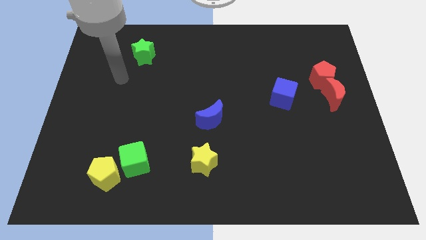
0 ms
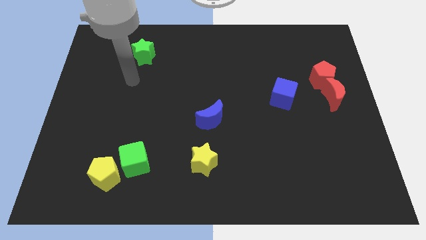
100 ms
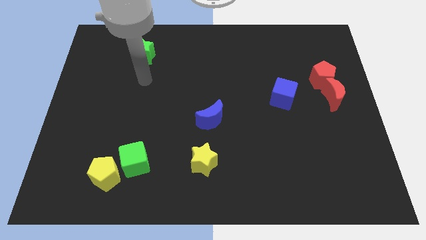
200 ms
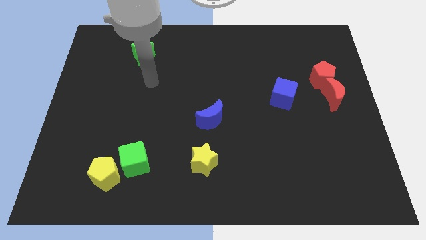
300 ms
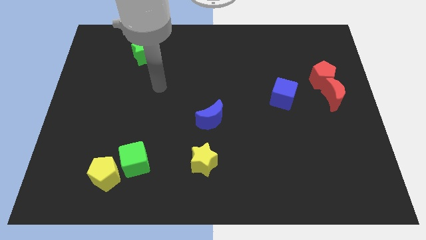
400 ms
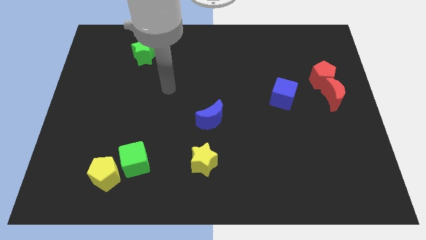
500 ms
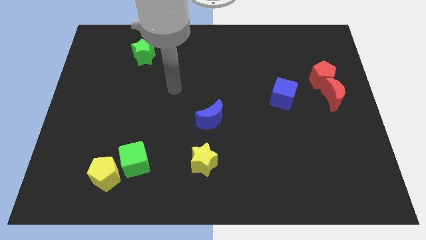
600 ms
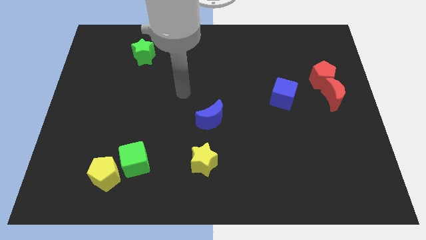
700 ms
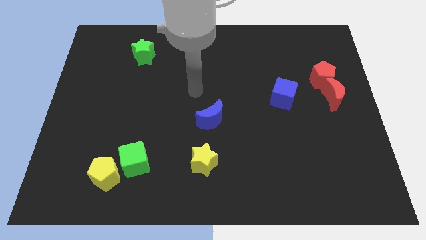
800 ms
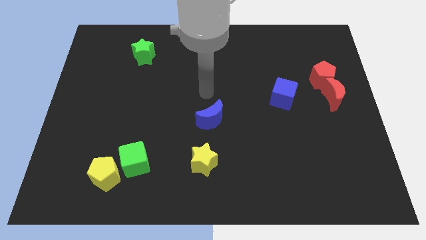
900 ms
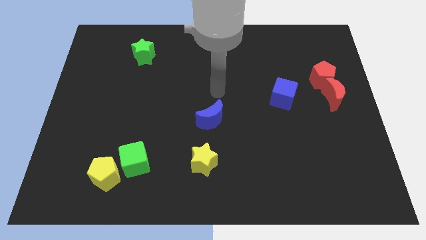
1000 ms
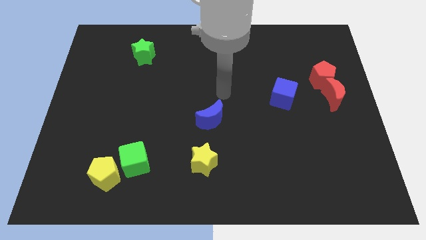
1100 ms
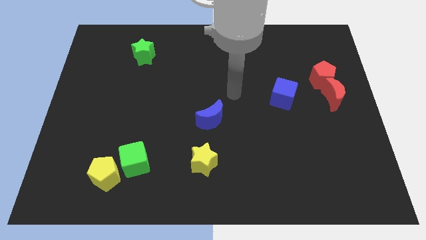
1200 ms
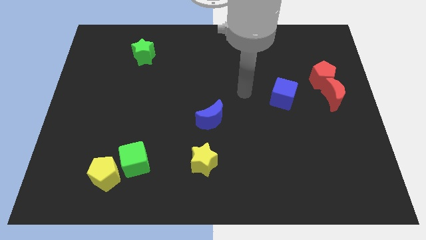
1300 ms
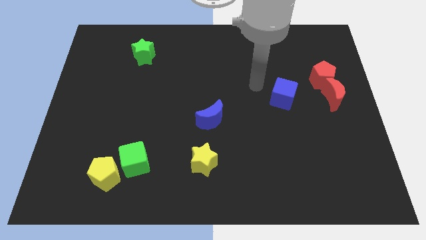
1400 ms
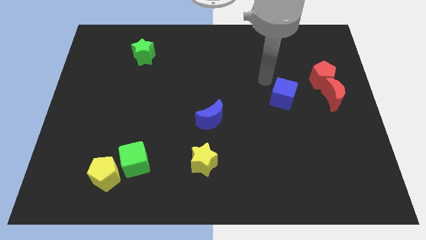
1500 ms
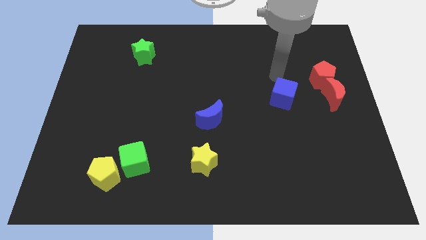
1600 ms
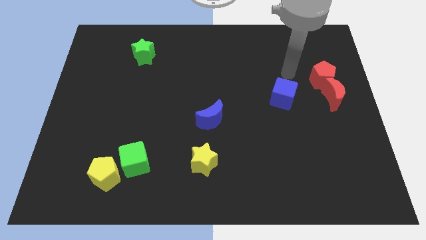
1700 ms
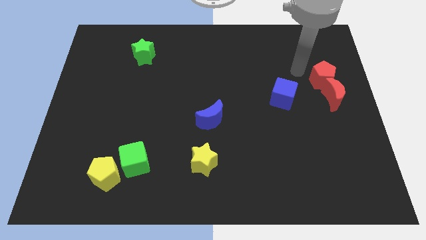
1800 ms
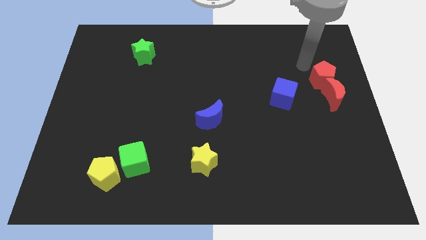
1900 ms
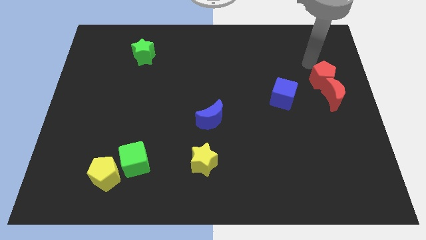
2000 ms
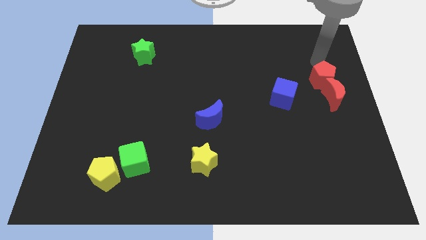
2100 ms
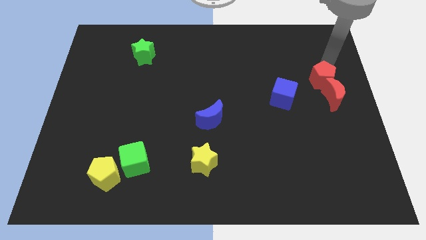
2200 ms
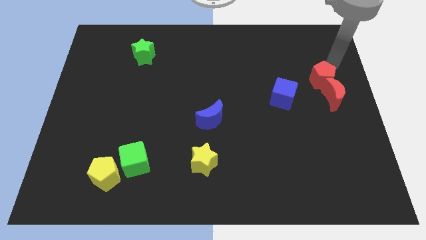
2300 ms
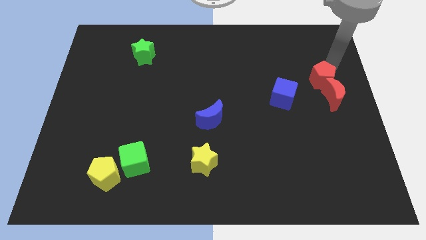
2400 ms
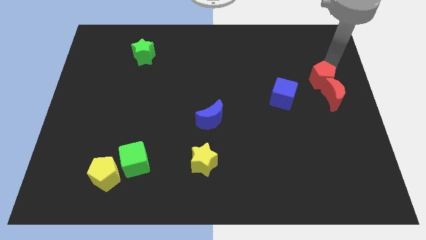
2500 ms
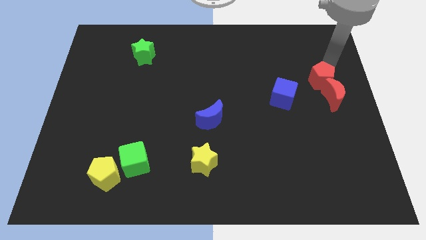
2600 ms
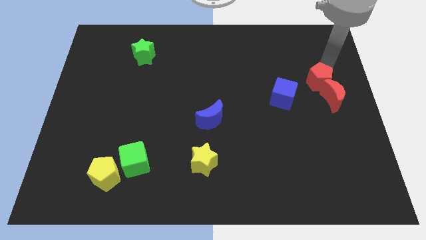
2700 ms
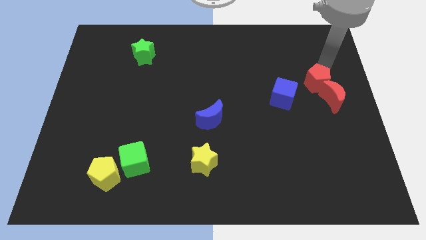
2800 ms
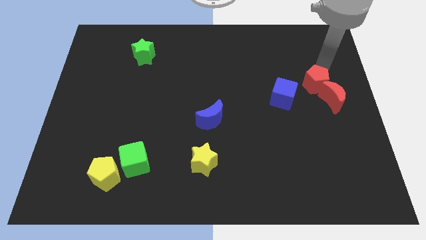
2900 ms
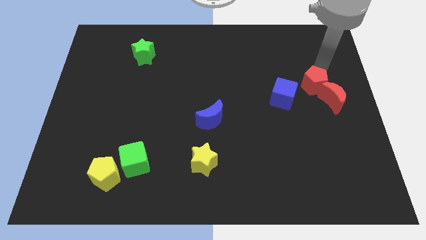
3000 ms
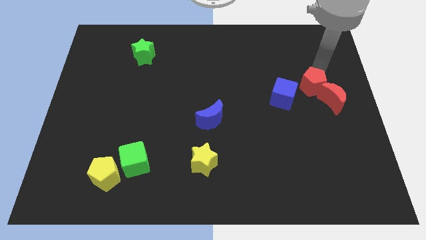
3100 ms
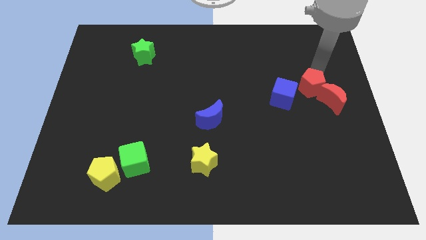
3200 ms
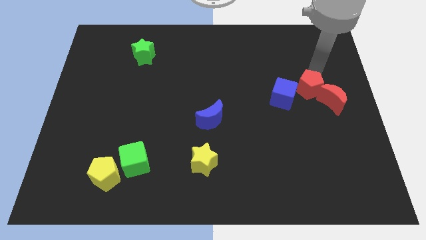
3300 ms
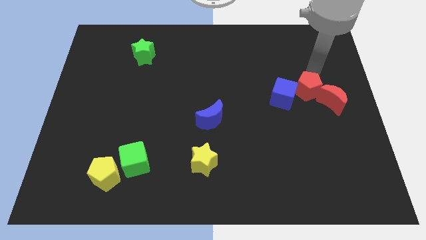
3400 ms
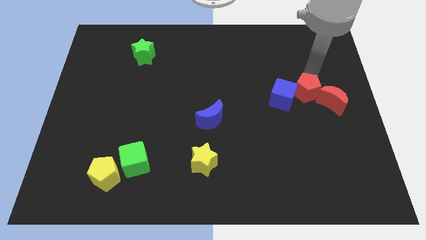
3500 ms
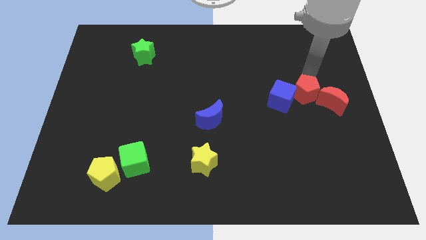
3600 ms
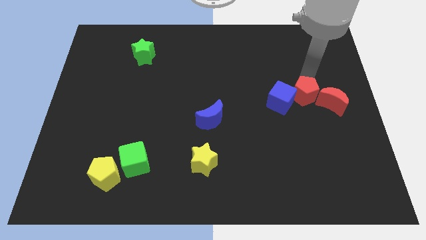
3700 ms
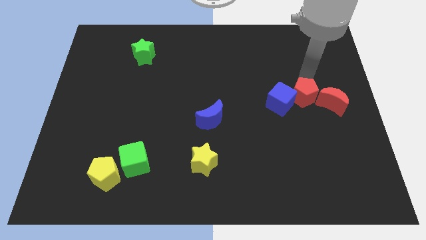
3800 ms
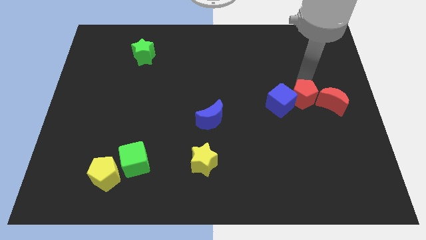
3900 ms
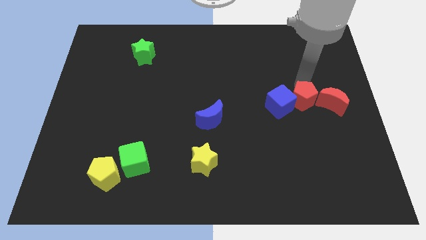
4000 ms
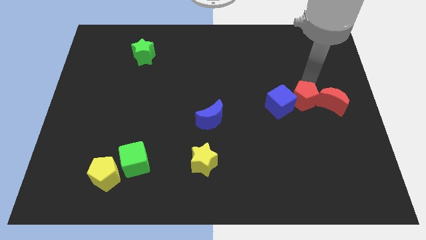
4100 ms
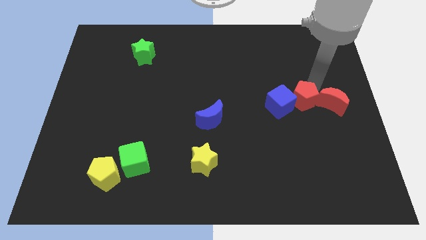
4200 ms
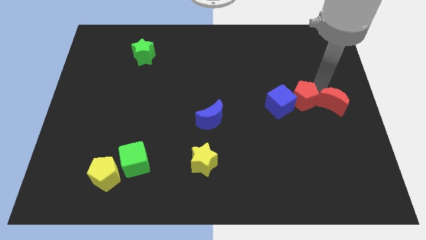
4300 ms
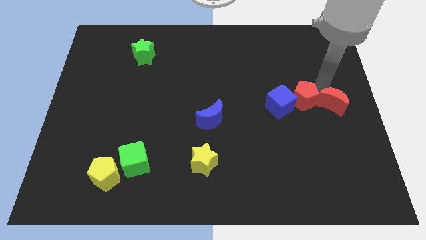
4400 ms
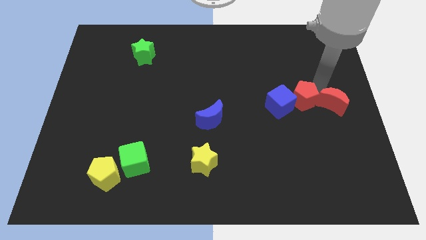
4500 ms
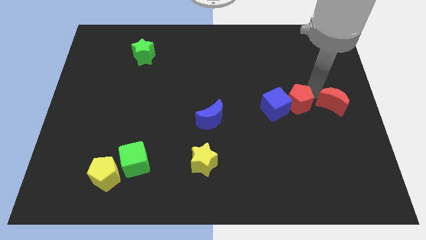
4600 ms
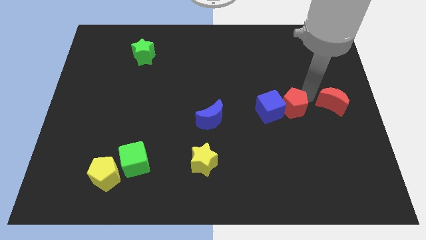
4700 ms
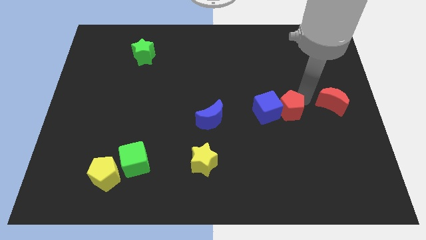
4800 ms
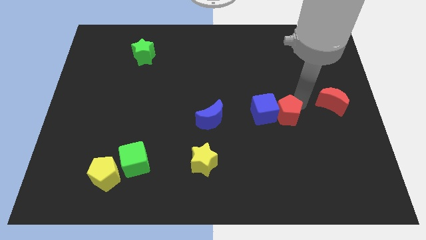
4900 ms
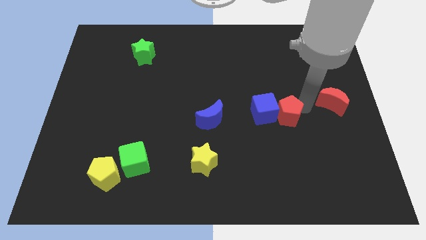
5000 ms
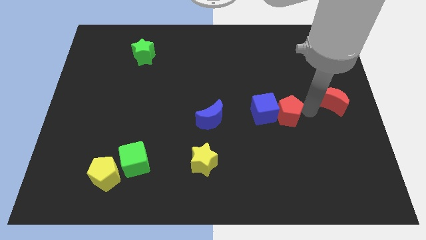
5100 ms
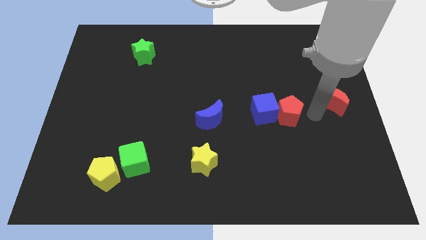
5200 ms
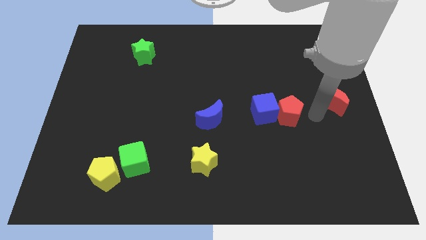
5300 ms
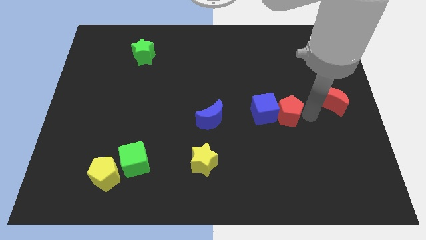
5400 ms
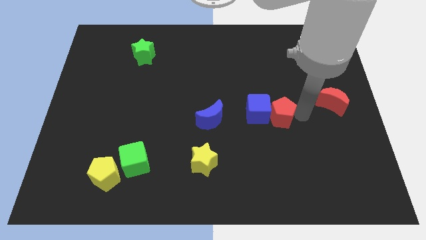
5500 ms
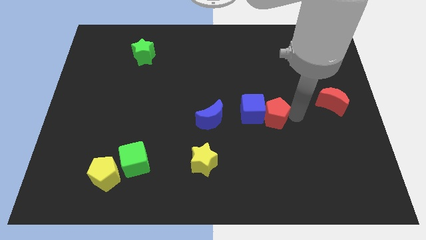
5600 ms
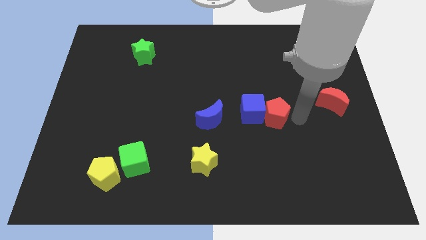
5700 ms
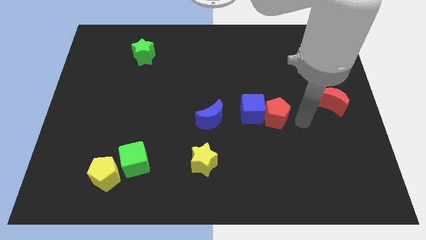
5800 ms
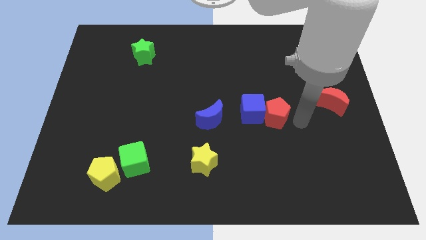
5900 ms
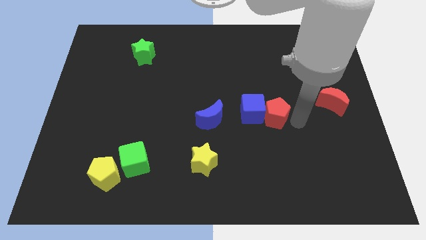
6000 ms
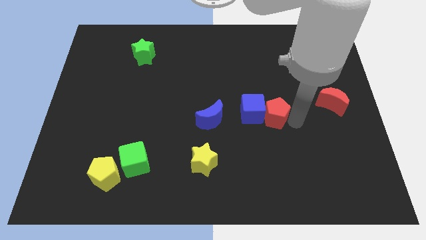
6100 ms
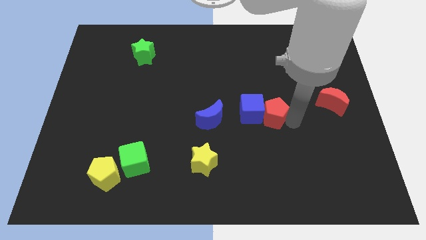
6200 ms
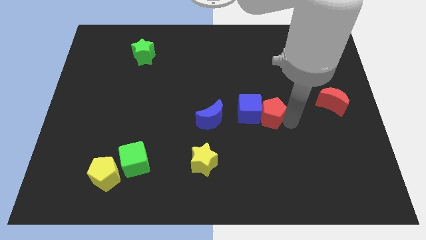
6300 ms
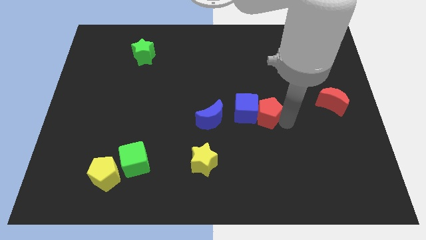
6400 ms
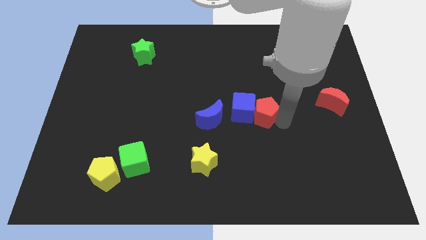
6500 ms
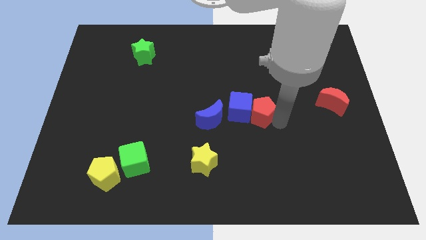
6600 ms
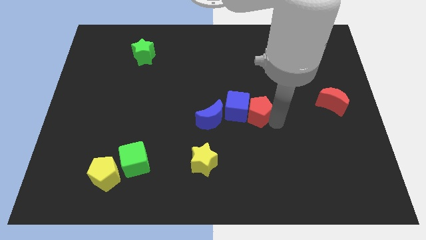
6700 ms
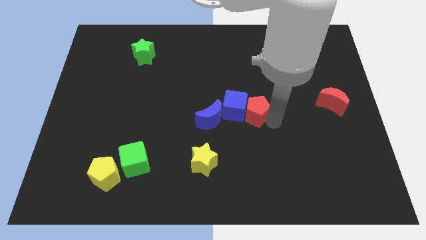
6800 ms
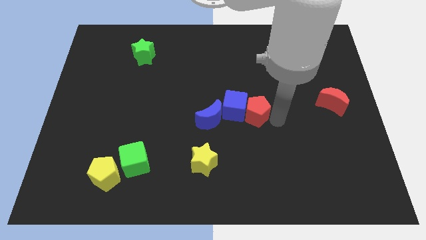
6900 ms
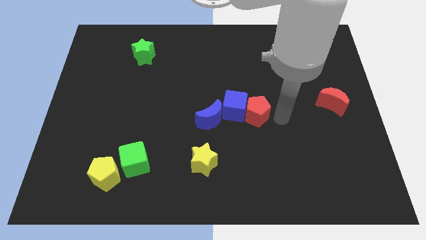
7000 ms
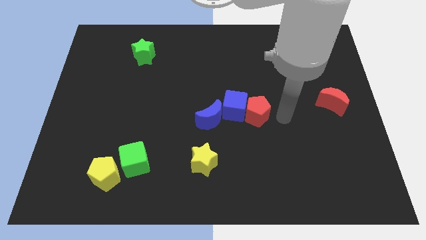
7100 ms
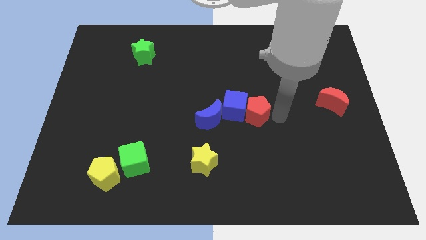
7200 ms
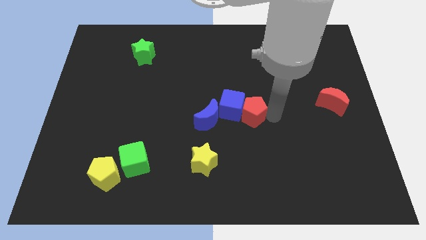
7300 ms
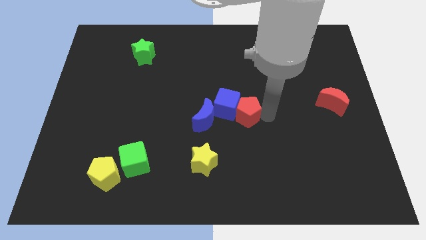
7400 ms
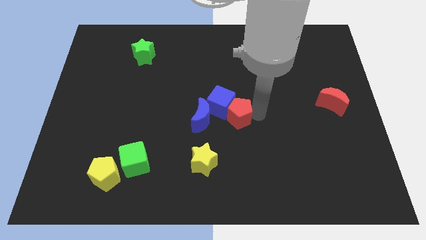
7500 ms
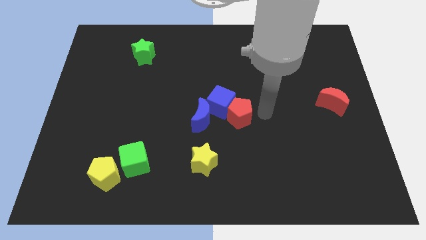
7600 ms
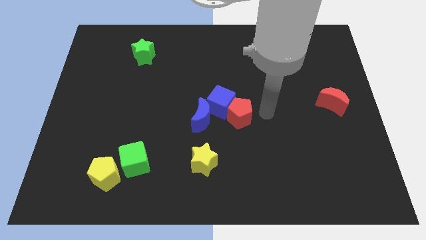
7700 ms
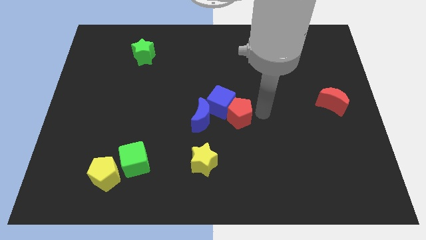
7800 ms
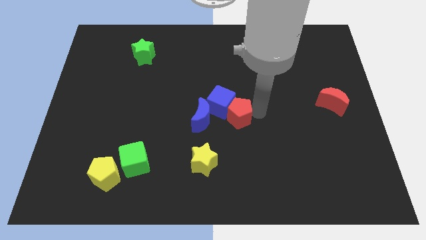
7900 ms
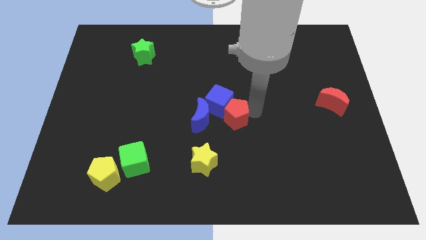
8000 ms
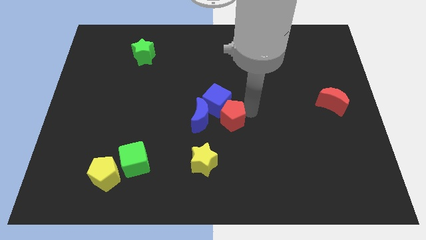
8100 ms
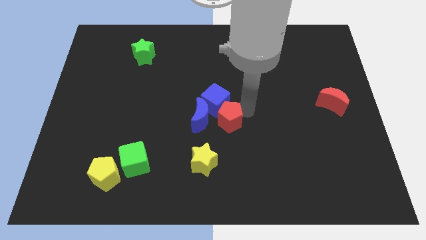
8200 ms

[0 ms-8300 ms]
move the red pentagon towards the blue moon
